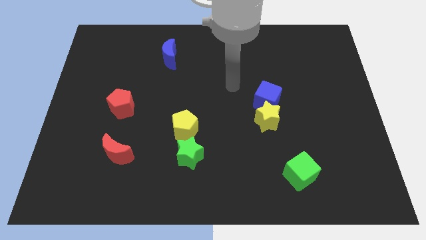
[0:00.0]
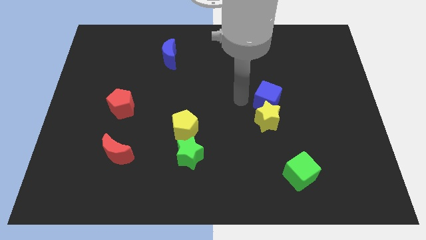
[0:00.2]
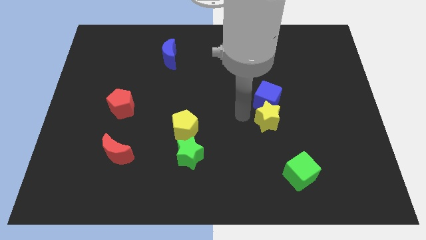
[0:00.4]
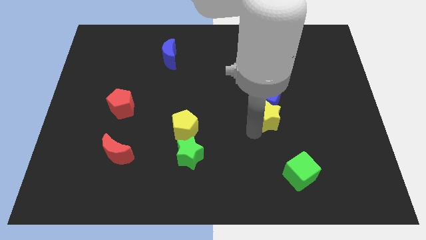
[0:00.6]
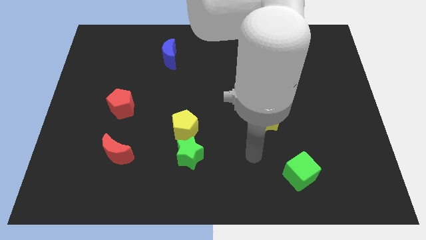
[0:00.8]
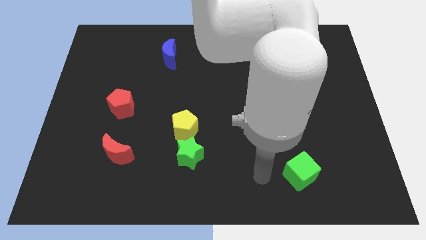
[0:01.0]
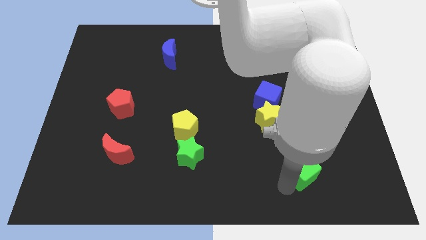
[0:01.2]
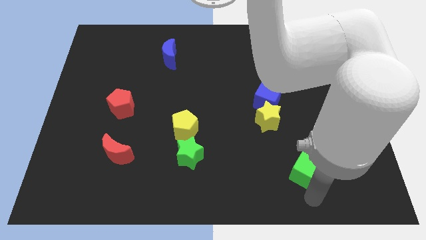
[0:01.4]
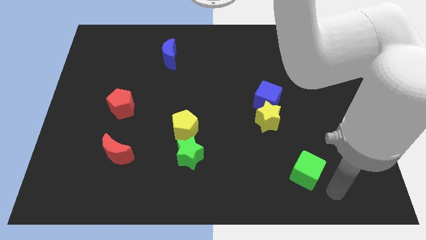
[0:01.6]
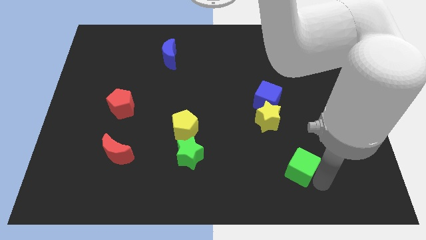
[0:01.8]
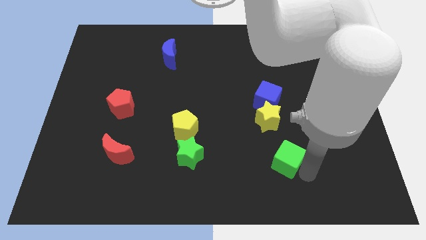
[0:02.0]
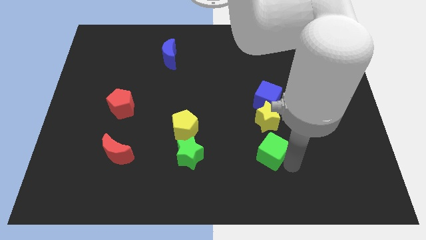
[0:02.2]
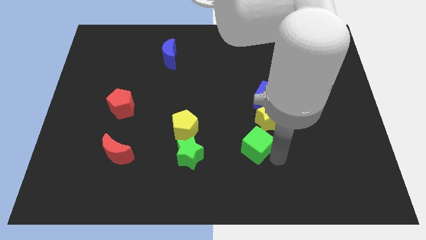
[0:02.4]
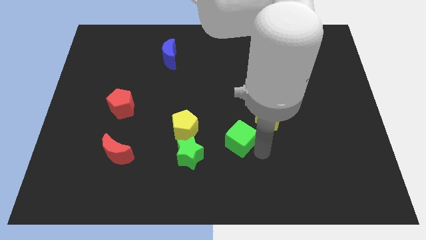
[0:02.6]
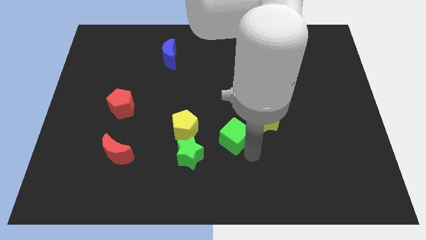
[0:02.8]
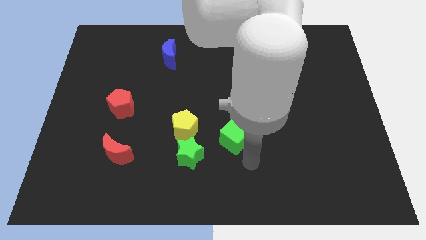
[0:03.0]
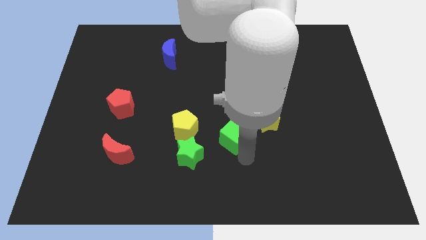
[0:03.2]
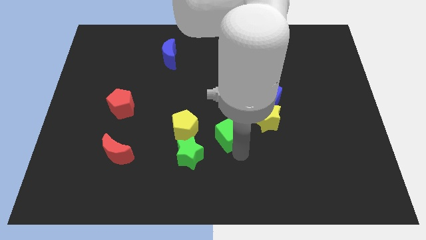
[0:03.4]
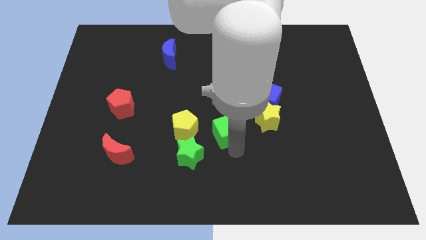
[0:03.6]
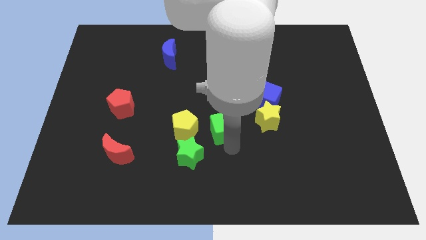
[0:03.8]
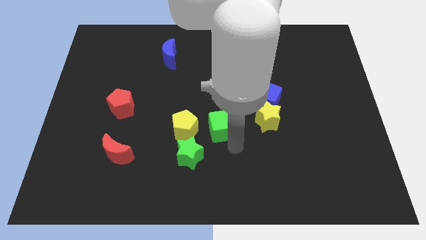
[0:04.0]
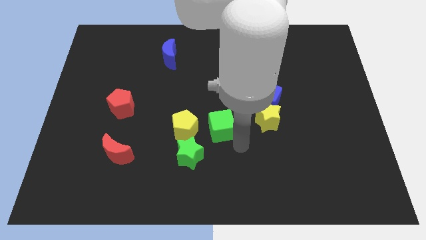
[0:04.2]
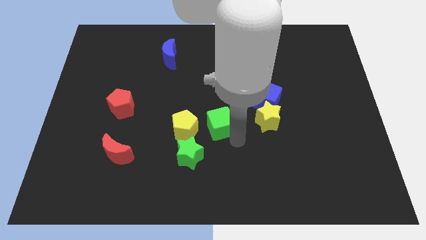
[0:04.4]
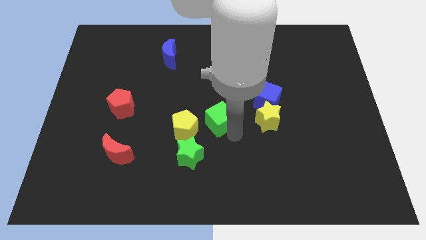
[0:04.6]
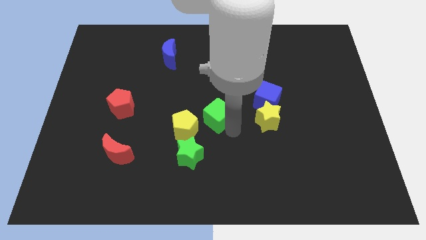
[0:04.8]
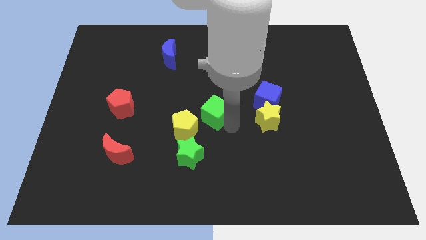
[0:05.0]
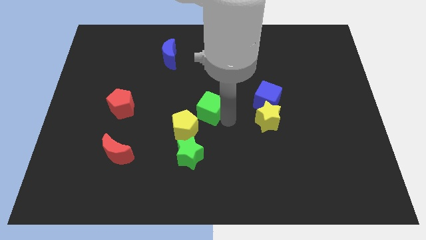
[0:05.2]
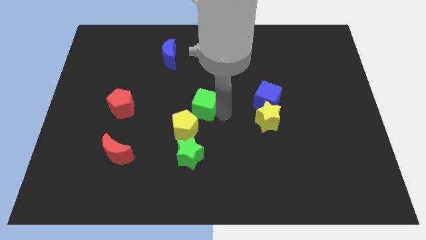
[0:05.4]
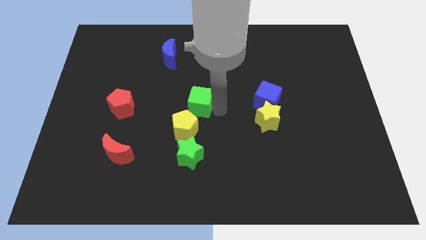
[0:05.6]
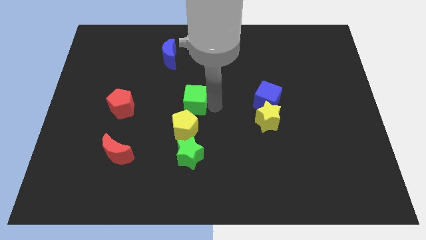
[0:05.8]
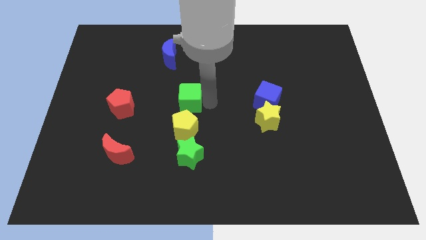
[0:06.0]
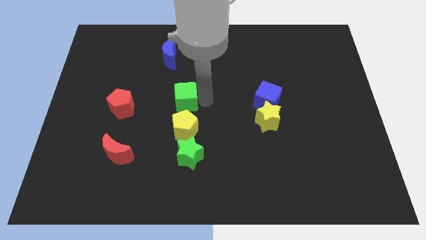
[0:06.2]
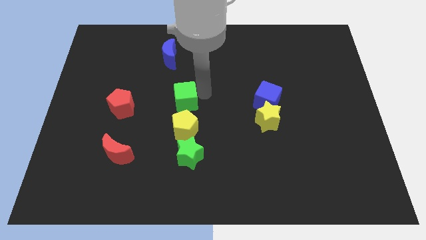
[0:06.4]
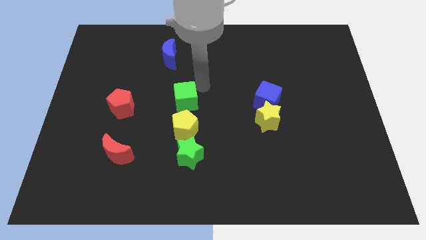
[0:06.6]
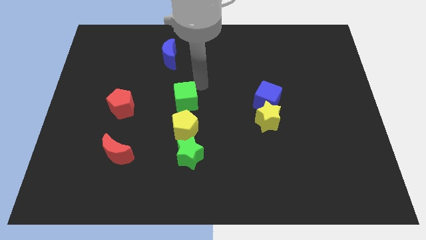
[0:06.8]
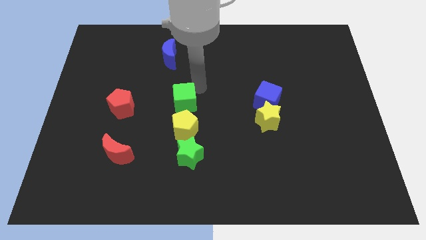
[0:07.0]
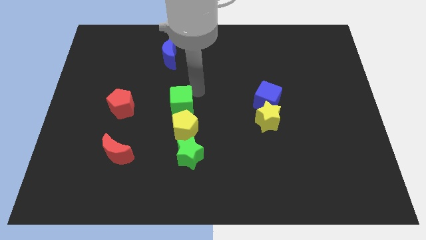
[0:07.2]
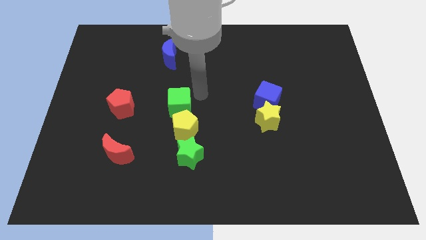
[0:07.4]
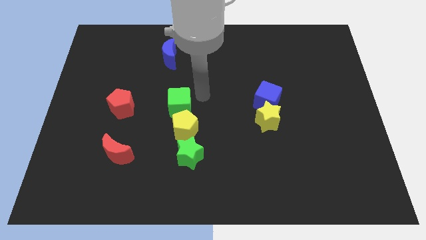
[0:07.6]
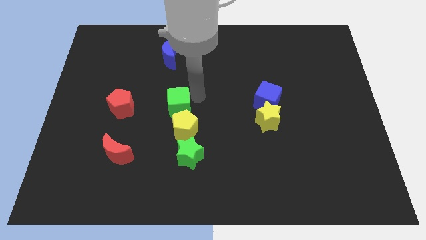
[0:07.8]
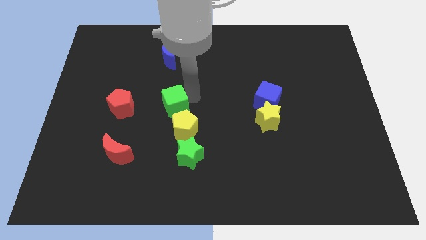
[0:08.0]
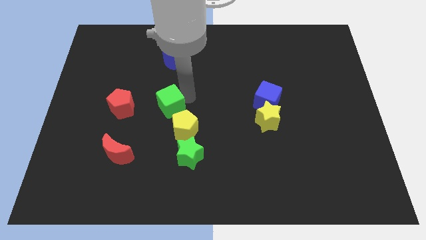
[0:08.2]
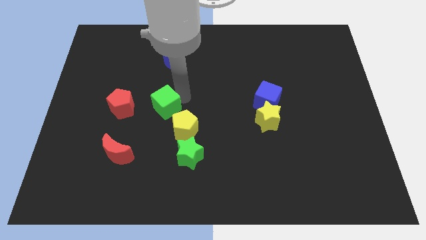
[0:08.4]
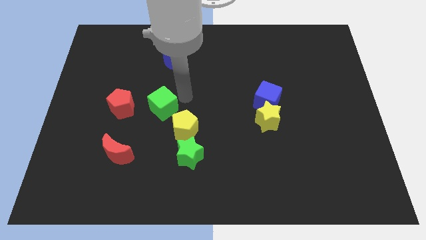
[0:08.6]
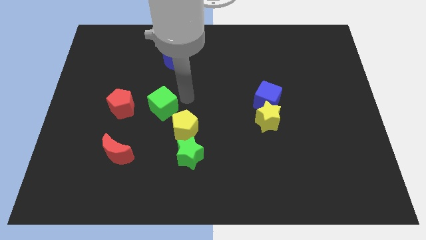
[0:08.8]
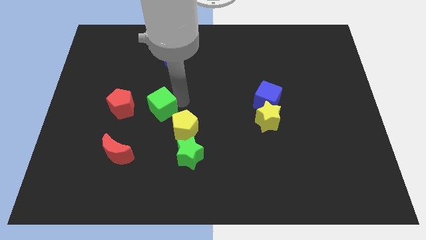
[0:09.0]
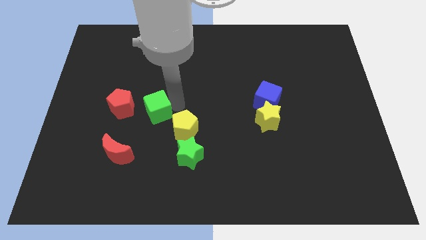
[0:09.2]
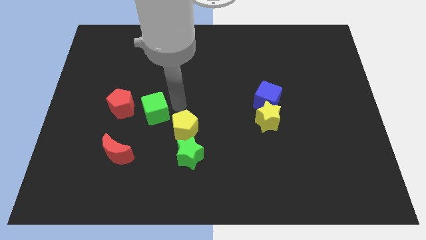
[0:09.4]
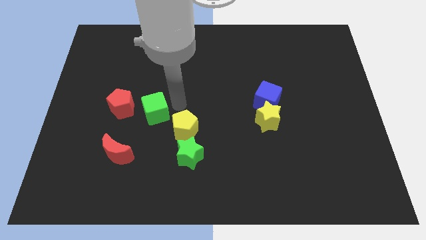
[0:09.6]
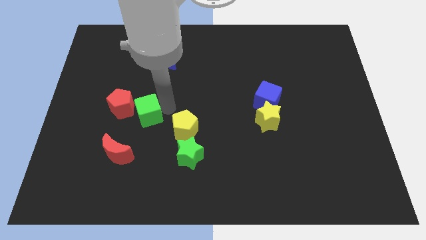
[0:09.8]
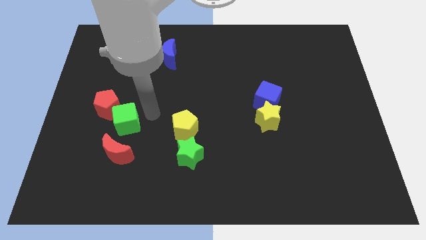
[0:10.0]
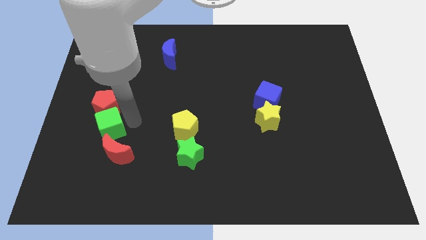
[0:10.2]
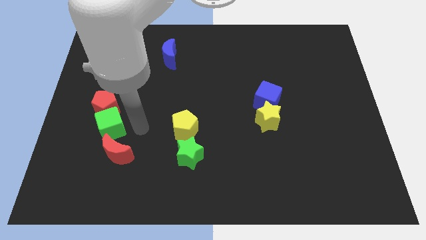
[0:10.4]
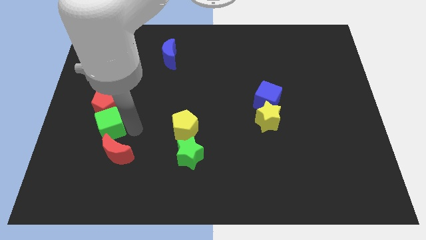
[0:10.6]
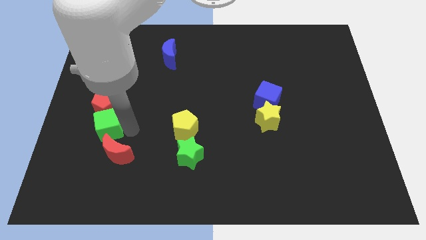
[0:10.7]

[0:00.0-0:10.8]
put the green cube to the bottom left of the red pentagon

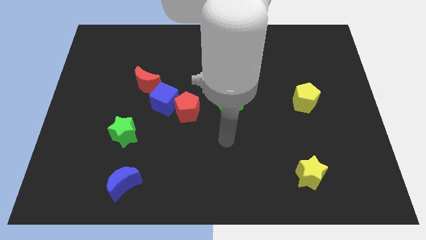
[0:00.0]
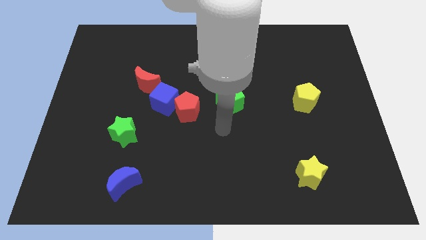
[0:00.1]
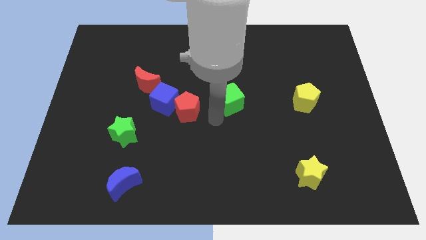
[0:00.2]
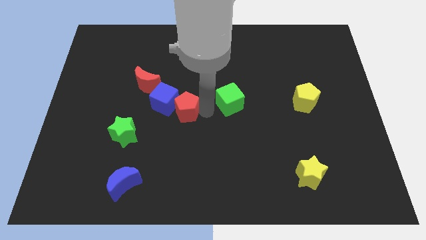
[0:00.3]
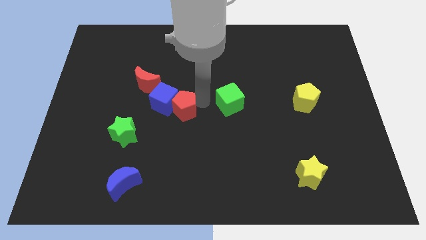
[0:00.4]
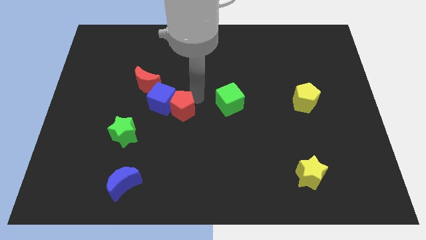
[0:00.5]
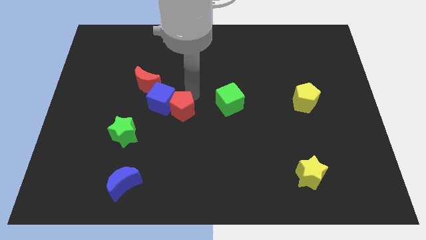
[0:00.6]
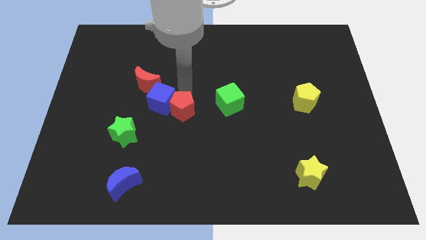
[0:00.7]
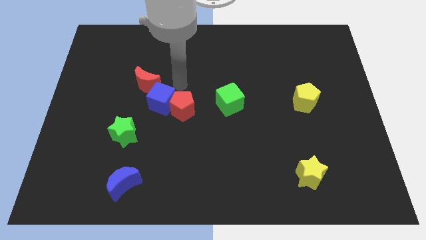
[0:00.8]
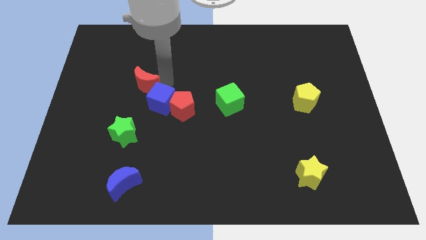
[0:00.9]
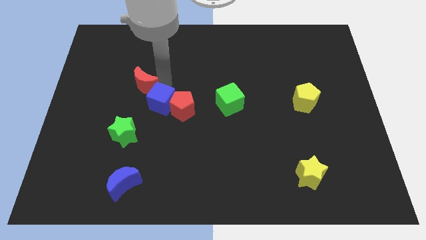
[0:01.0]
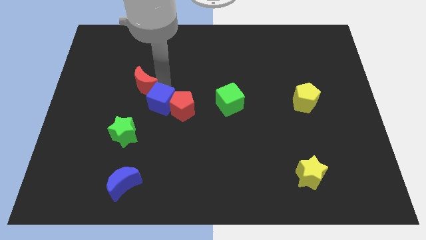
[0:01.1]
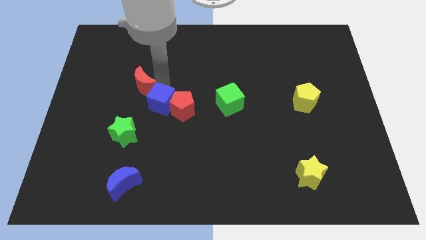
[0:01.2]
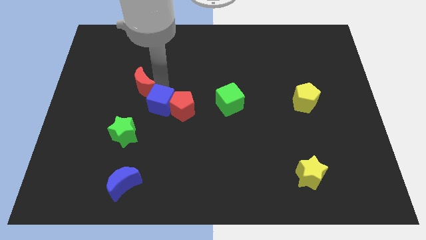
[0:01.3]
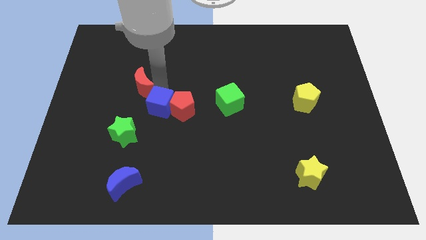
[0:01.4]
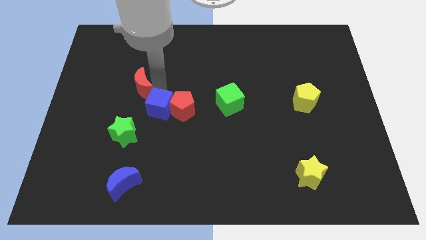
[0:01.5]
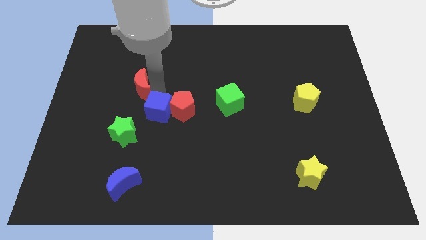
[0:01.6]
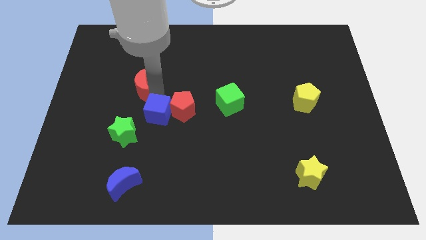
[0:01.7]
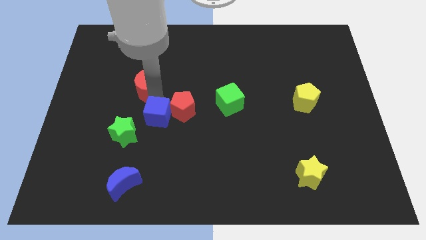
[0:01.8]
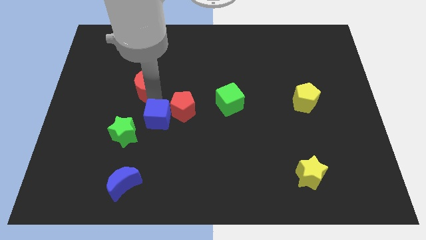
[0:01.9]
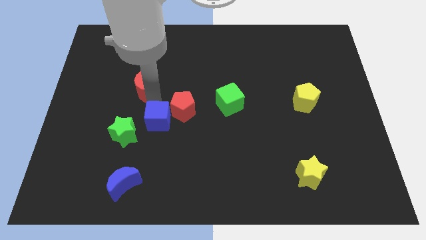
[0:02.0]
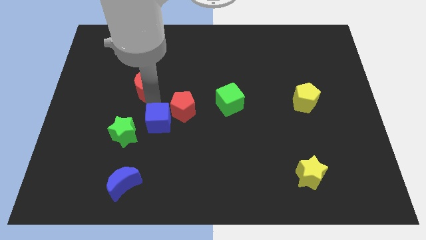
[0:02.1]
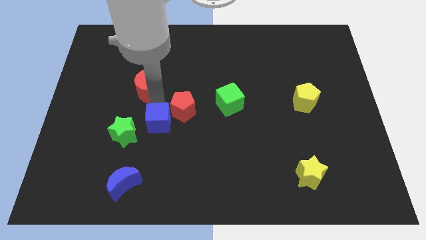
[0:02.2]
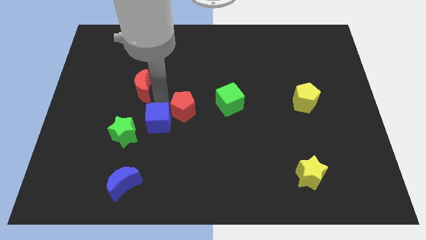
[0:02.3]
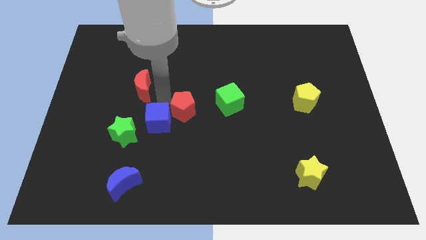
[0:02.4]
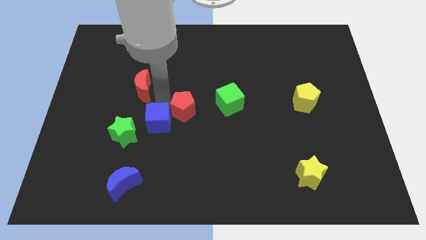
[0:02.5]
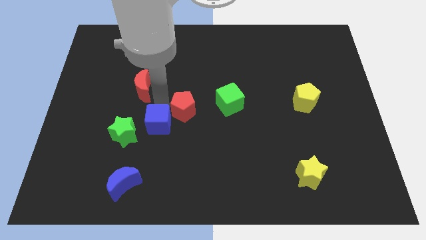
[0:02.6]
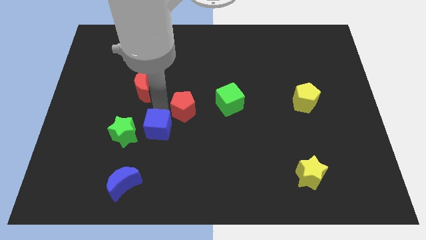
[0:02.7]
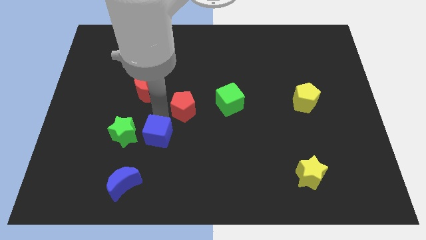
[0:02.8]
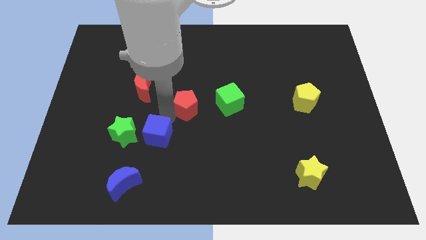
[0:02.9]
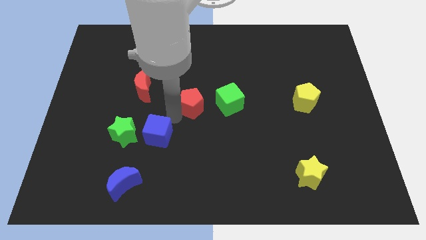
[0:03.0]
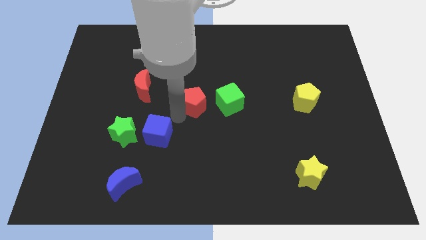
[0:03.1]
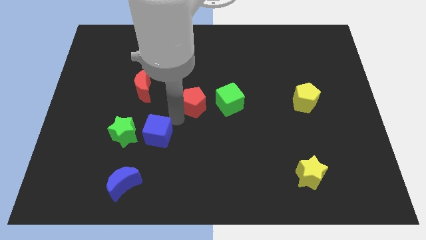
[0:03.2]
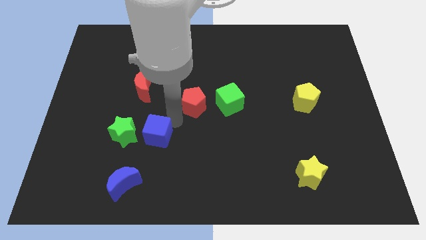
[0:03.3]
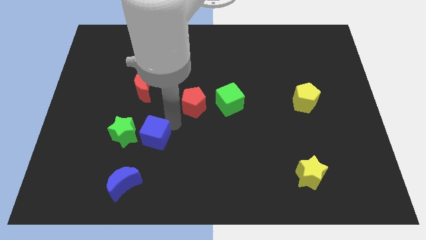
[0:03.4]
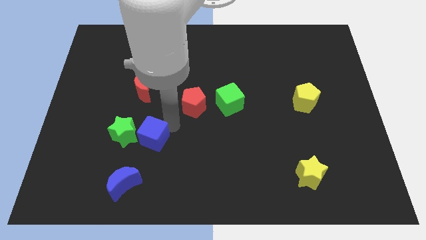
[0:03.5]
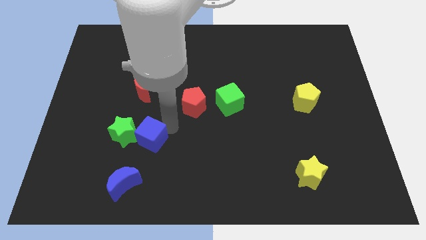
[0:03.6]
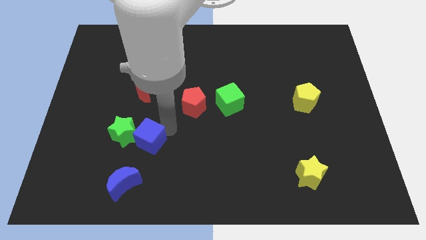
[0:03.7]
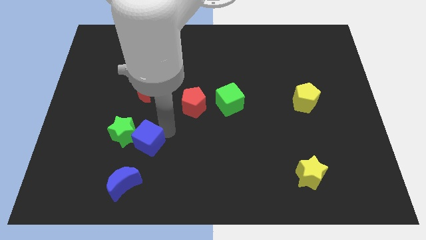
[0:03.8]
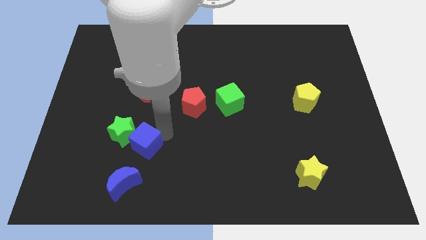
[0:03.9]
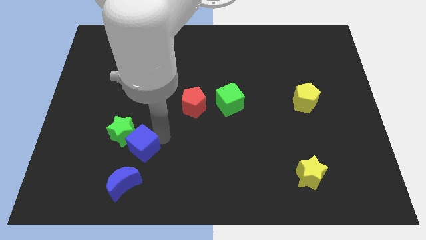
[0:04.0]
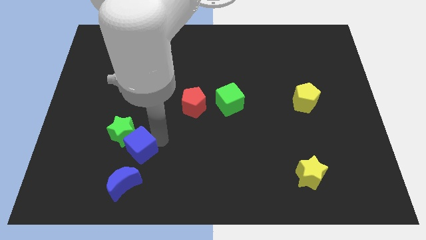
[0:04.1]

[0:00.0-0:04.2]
put the blue cube to the bottom side of the green star
